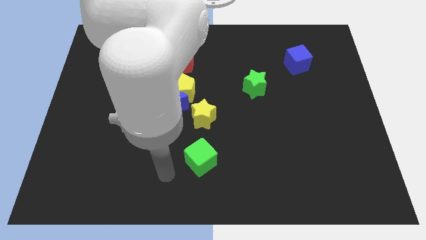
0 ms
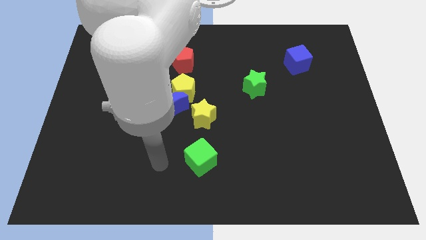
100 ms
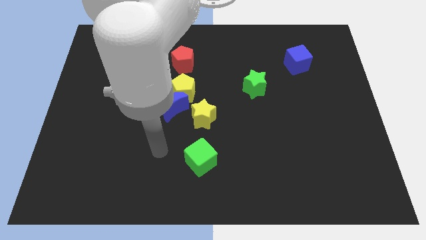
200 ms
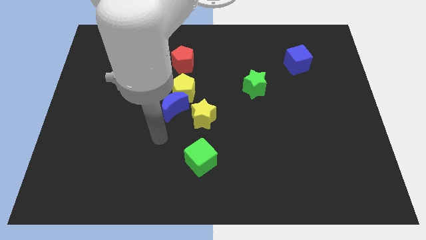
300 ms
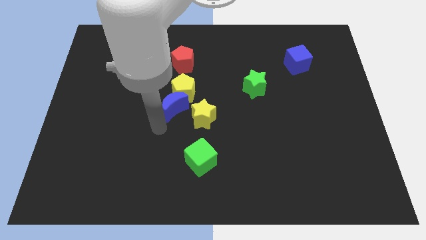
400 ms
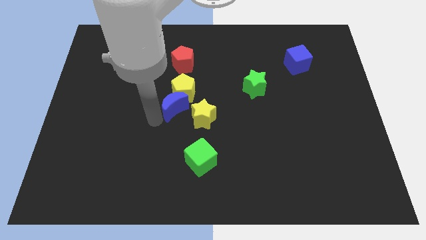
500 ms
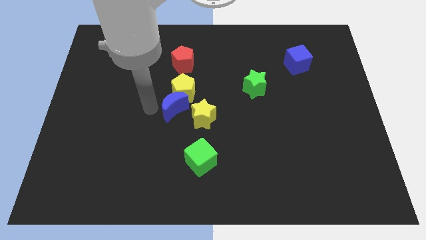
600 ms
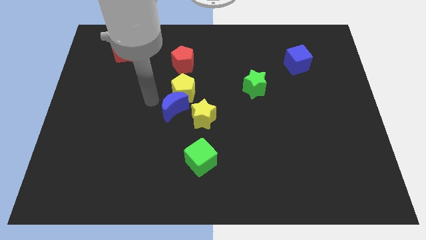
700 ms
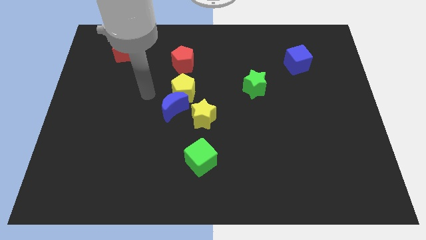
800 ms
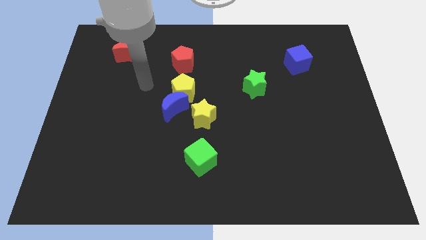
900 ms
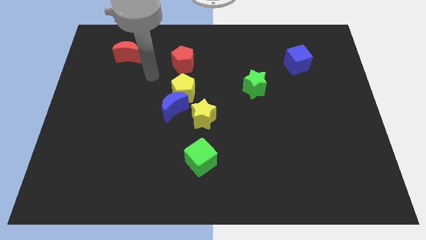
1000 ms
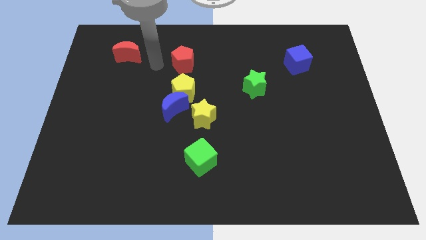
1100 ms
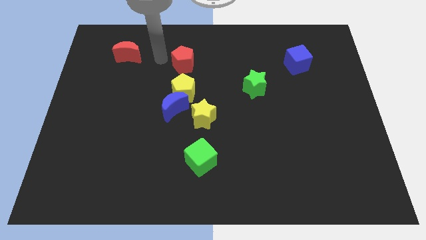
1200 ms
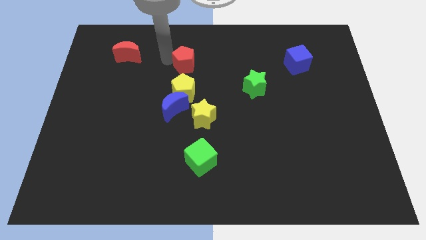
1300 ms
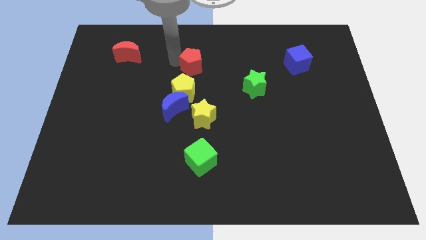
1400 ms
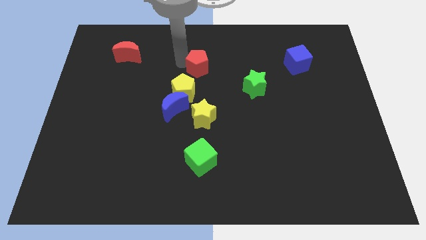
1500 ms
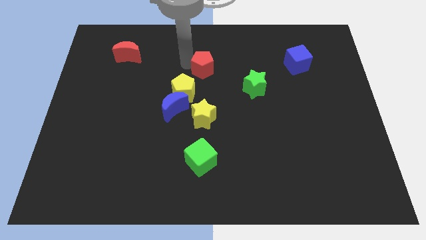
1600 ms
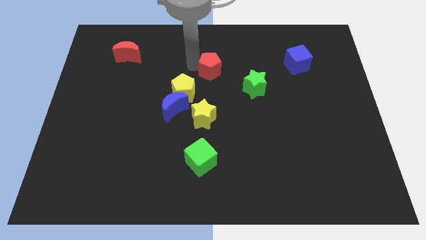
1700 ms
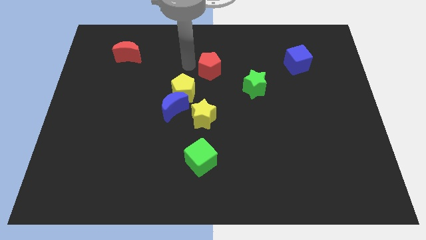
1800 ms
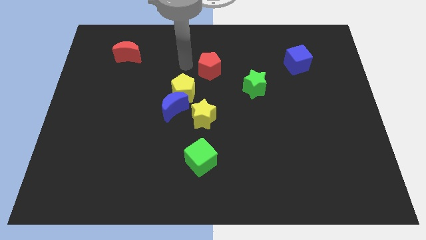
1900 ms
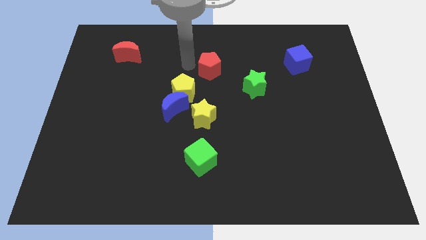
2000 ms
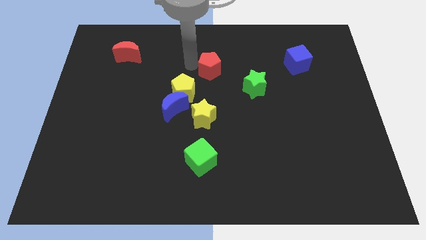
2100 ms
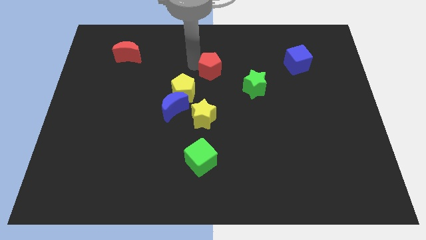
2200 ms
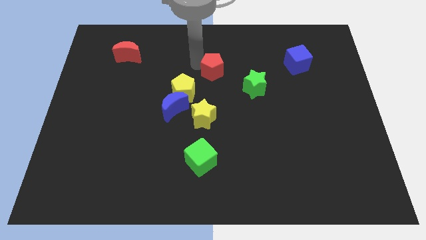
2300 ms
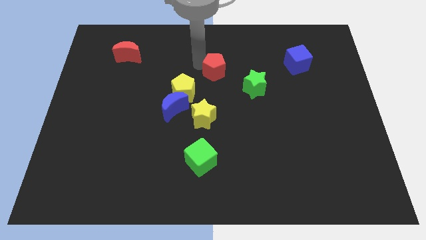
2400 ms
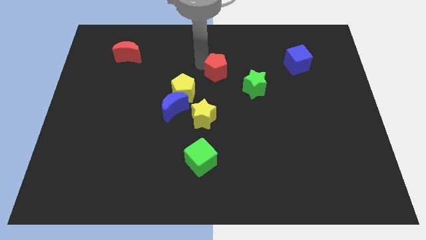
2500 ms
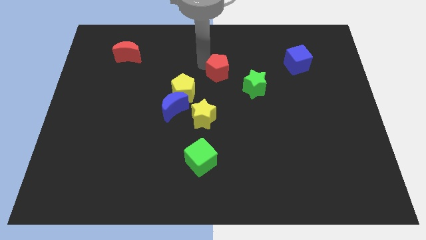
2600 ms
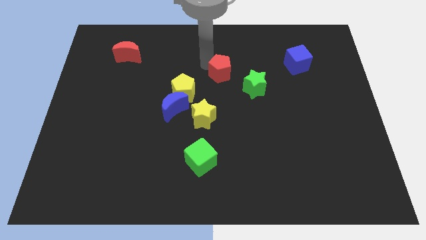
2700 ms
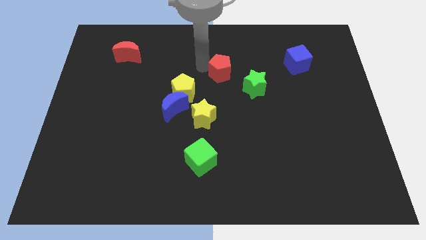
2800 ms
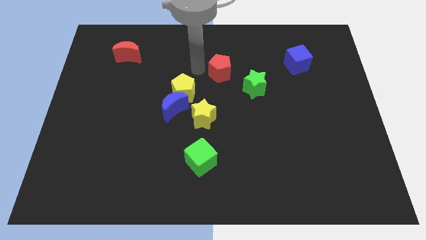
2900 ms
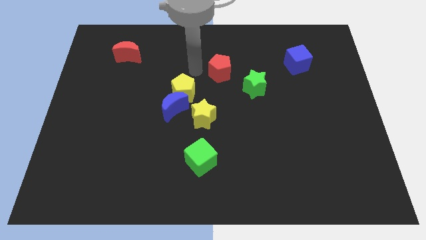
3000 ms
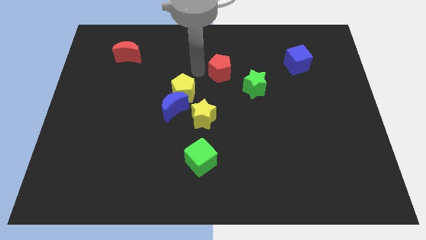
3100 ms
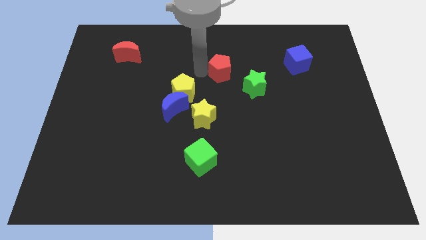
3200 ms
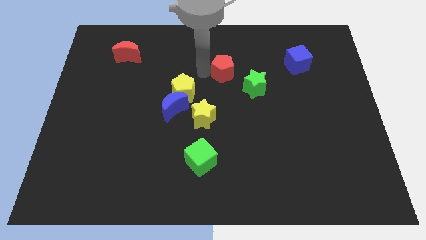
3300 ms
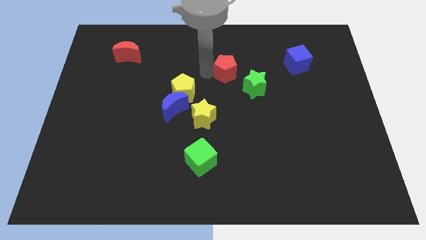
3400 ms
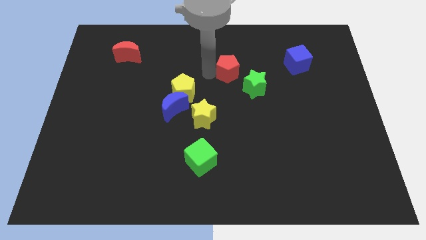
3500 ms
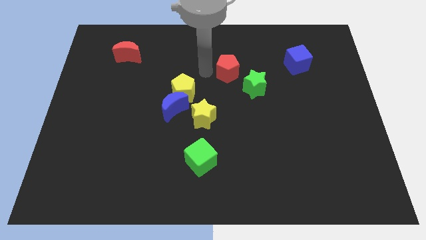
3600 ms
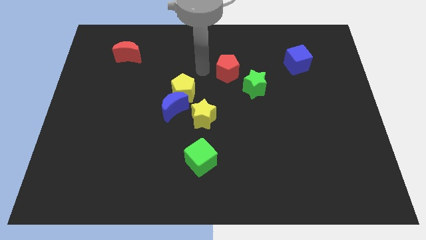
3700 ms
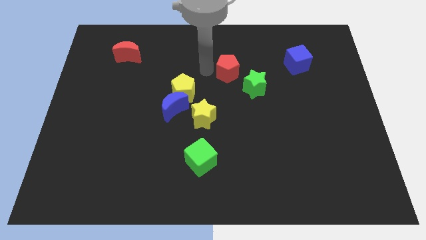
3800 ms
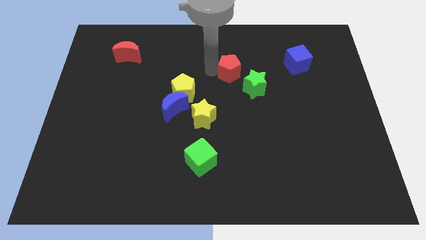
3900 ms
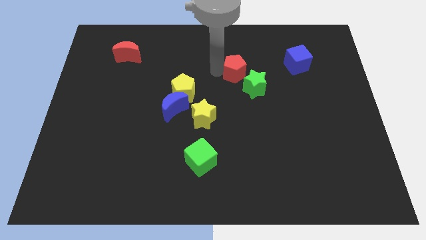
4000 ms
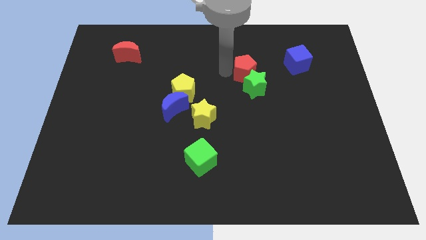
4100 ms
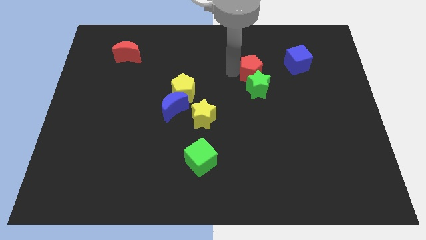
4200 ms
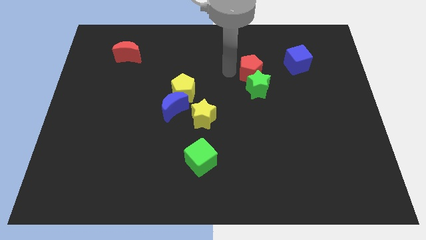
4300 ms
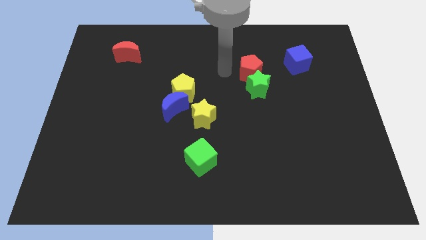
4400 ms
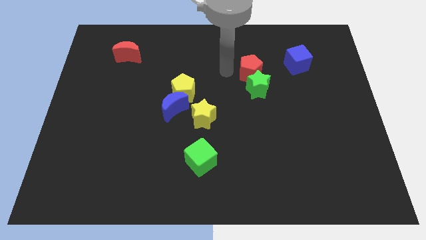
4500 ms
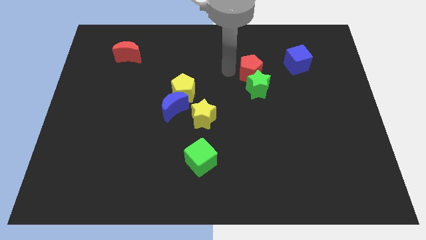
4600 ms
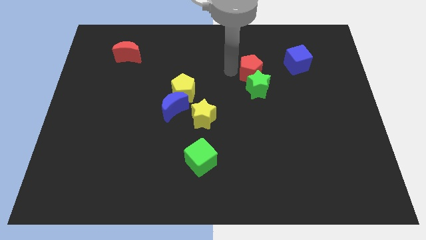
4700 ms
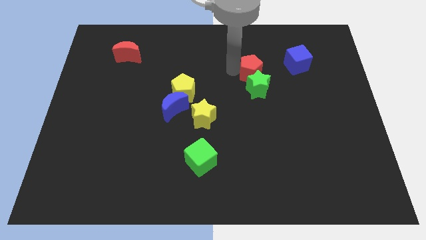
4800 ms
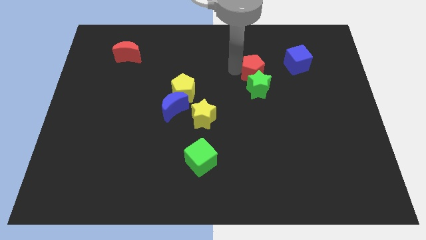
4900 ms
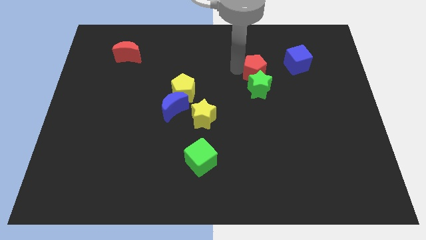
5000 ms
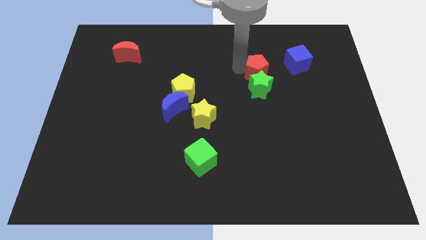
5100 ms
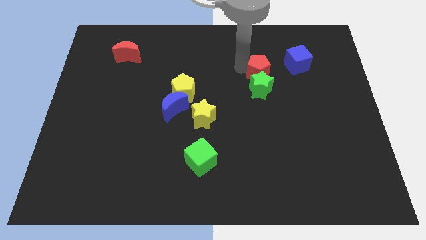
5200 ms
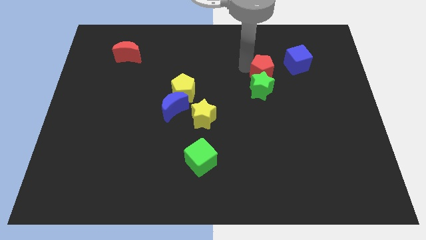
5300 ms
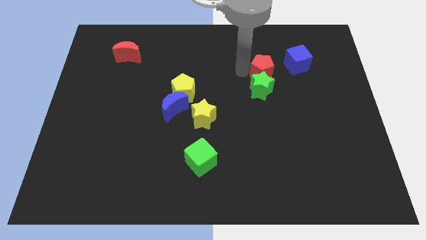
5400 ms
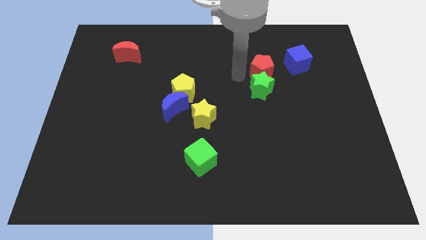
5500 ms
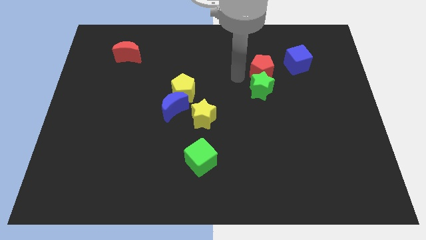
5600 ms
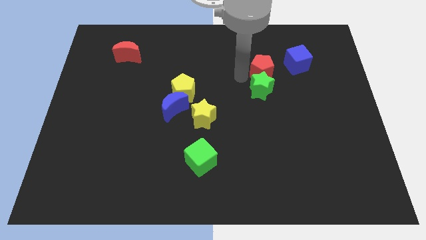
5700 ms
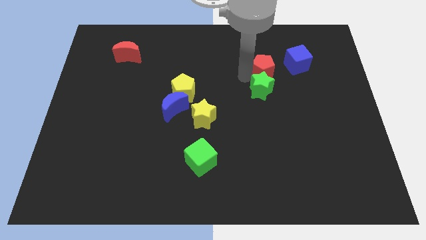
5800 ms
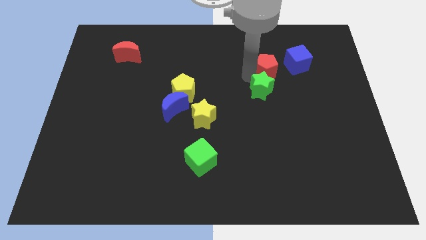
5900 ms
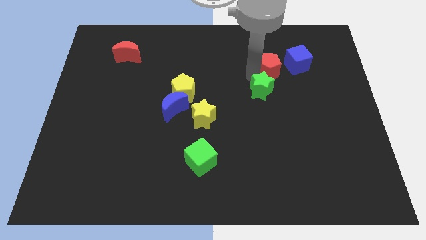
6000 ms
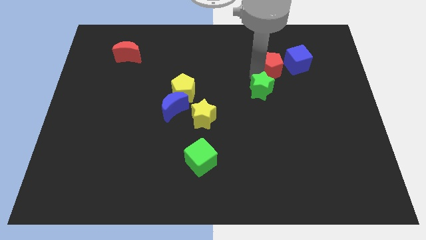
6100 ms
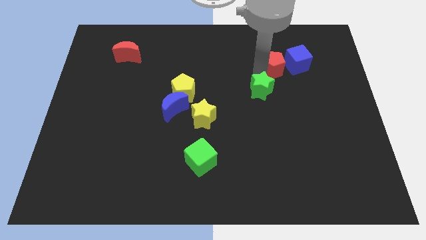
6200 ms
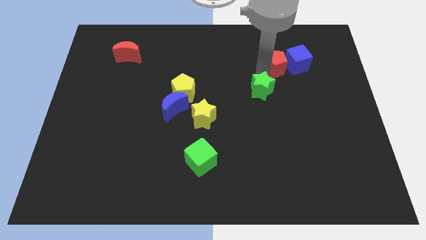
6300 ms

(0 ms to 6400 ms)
slide the red pentagon to the blue cube
